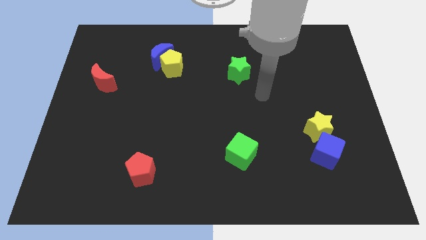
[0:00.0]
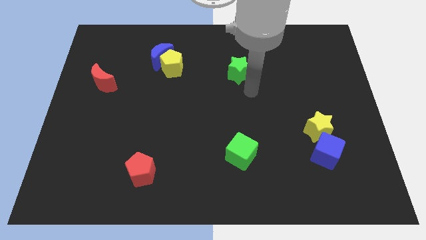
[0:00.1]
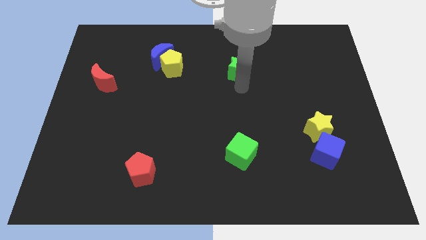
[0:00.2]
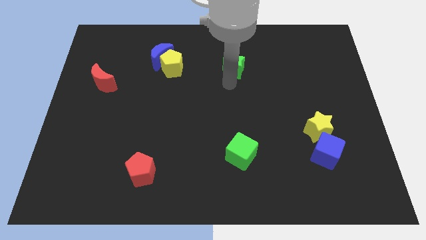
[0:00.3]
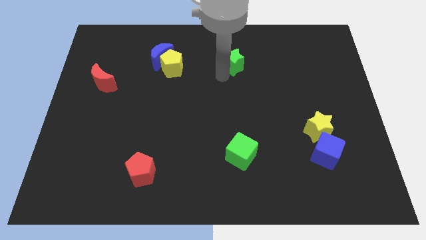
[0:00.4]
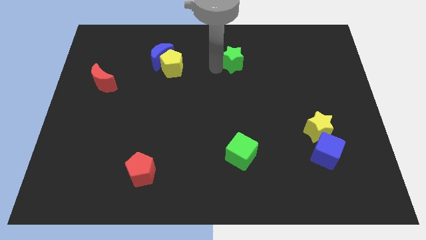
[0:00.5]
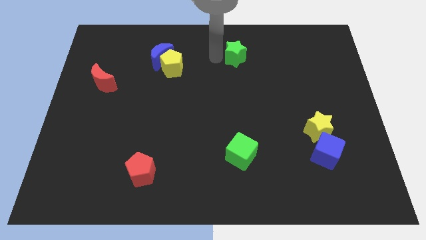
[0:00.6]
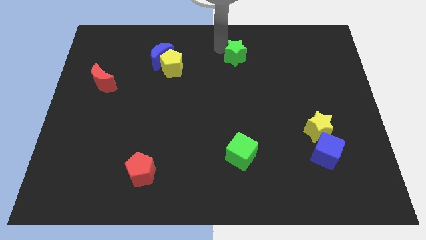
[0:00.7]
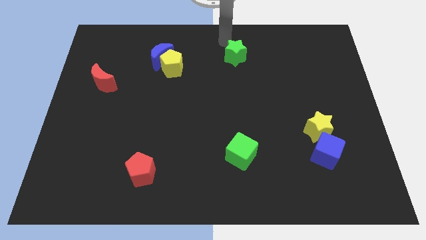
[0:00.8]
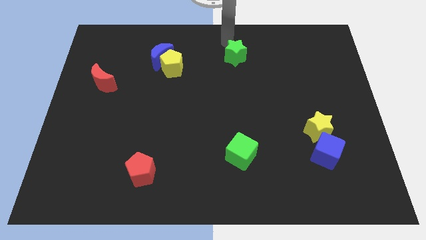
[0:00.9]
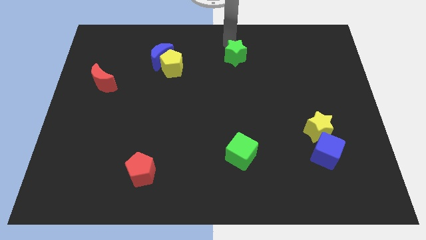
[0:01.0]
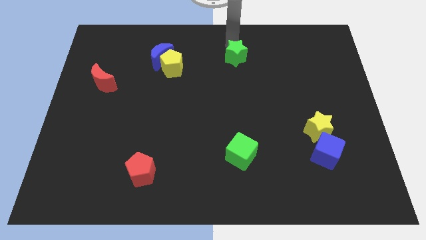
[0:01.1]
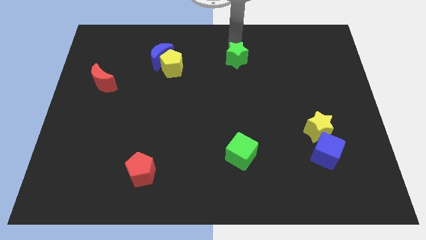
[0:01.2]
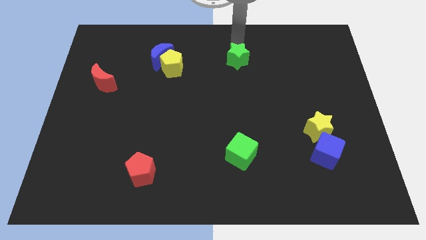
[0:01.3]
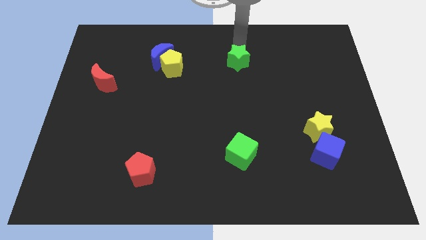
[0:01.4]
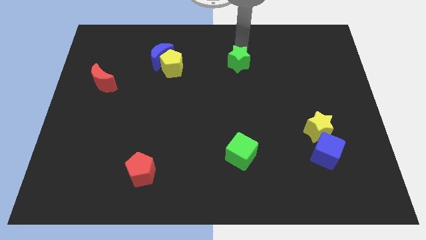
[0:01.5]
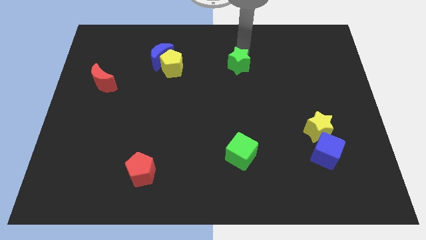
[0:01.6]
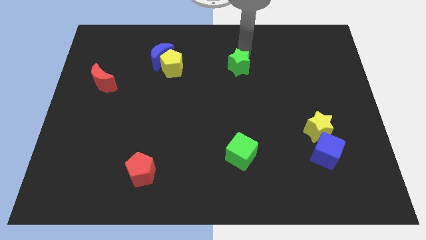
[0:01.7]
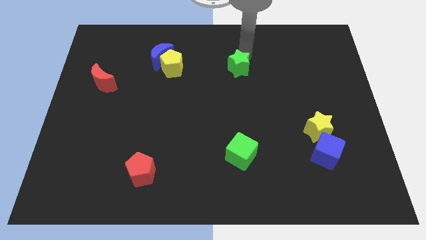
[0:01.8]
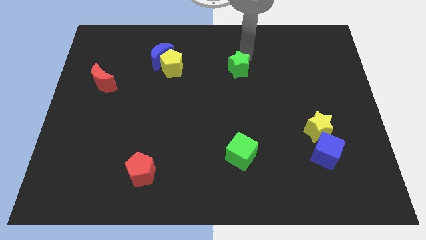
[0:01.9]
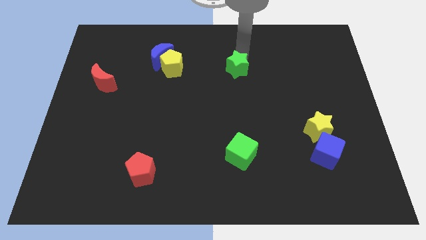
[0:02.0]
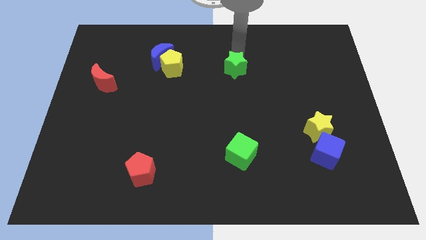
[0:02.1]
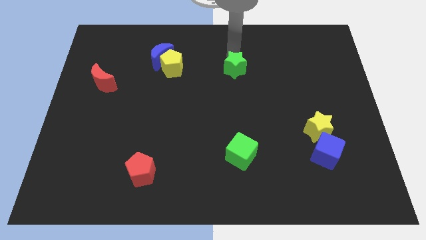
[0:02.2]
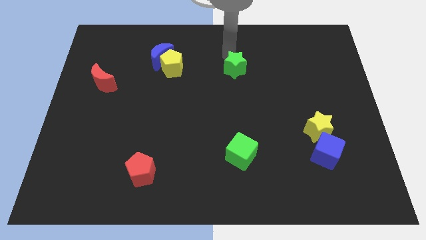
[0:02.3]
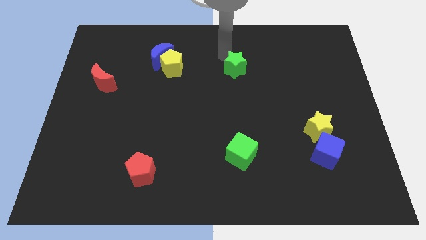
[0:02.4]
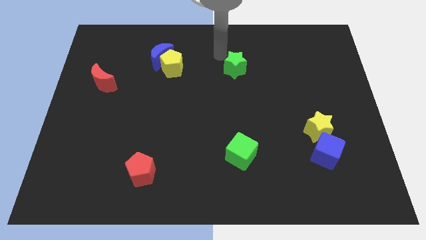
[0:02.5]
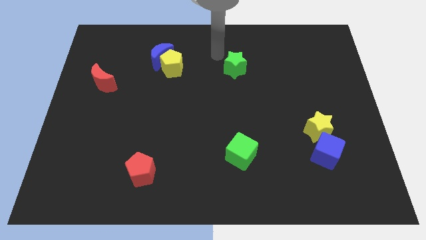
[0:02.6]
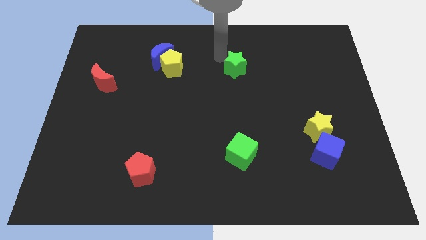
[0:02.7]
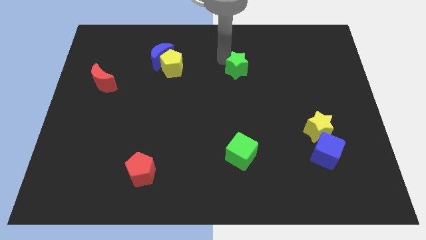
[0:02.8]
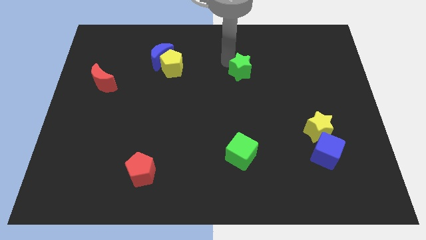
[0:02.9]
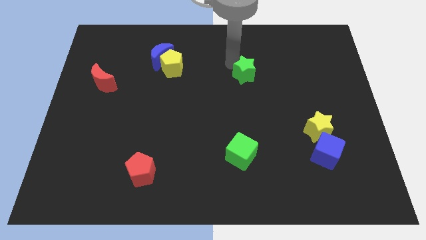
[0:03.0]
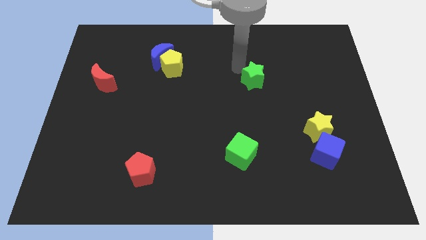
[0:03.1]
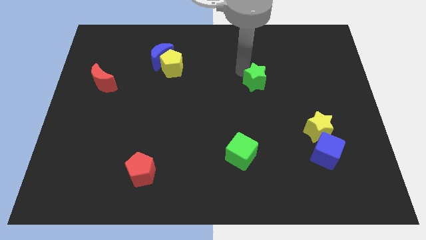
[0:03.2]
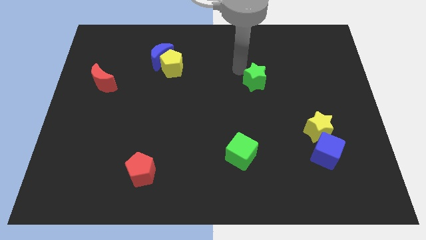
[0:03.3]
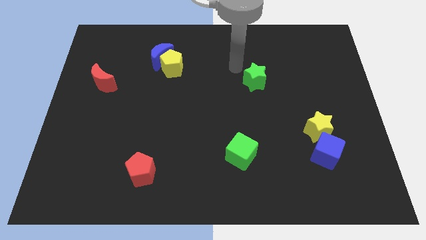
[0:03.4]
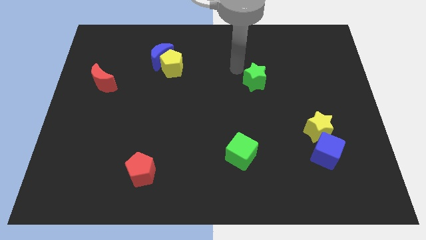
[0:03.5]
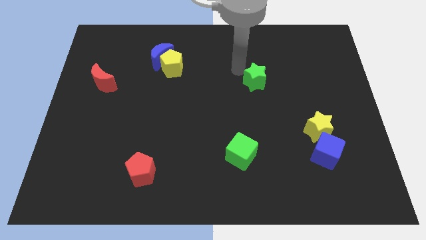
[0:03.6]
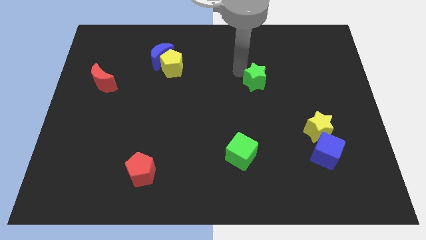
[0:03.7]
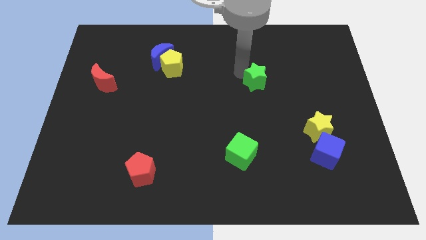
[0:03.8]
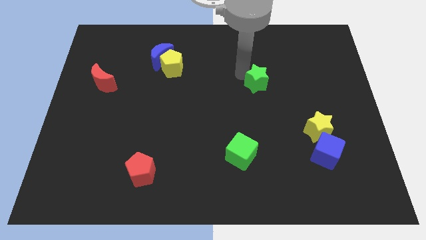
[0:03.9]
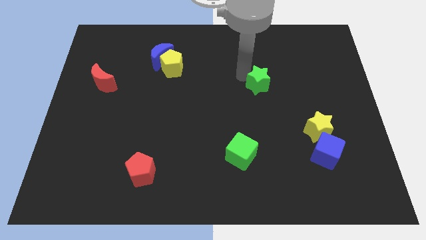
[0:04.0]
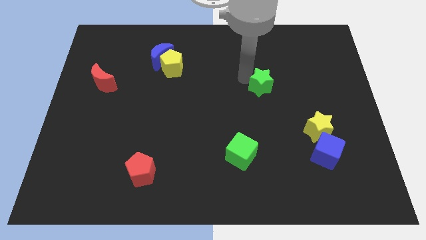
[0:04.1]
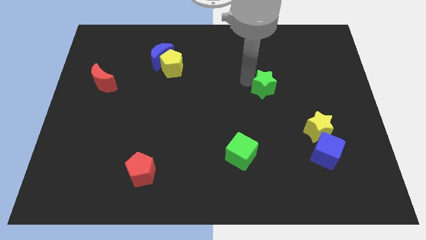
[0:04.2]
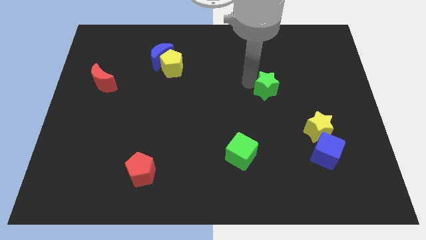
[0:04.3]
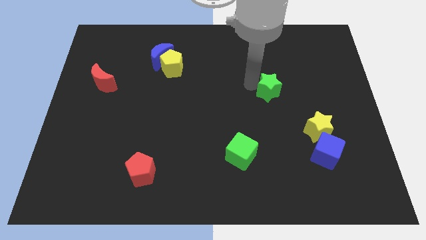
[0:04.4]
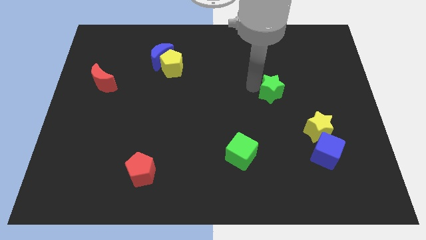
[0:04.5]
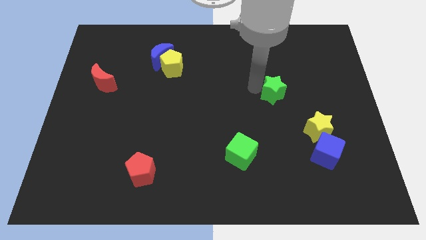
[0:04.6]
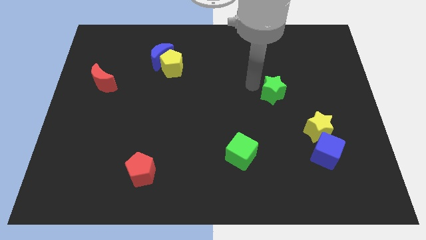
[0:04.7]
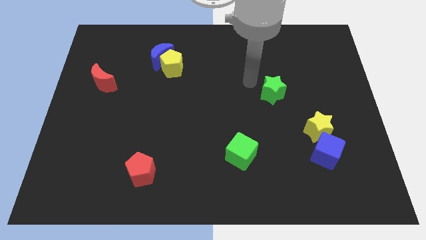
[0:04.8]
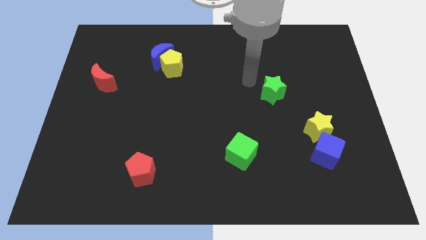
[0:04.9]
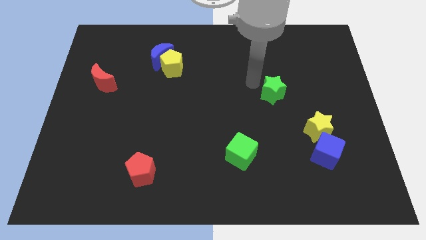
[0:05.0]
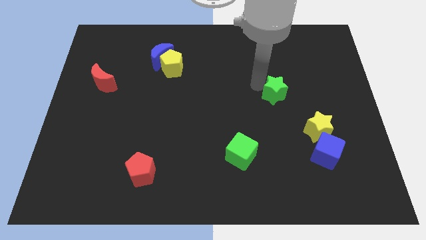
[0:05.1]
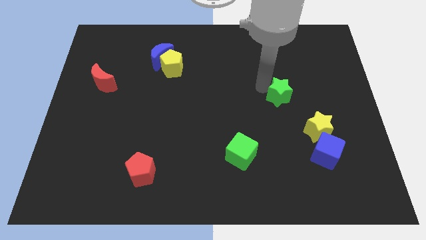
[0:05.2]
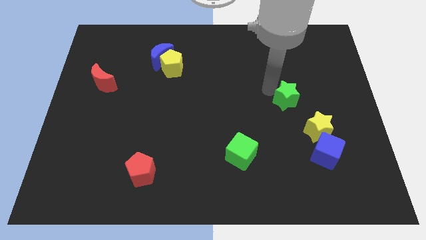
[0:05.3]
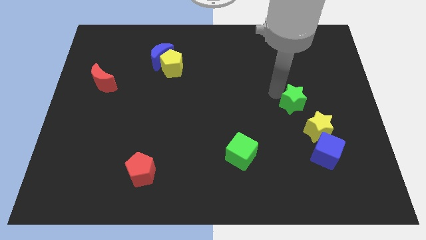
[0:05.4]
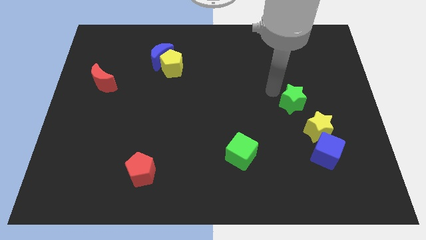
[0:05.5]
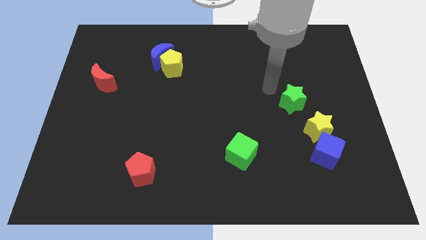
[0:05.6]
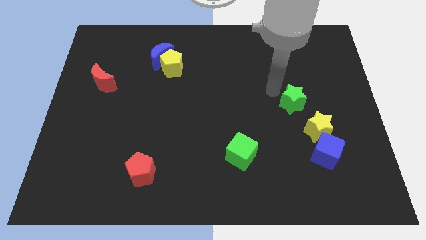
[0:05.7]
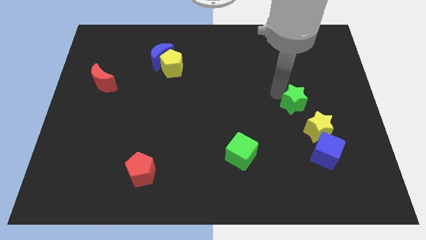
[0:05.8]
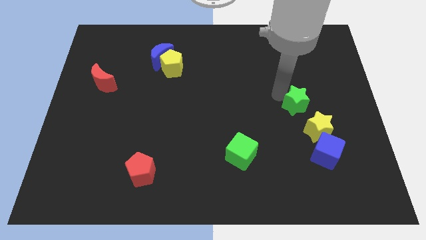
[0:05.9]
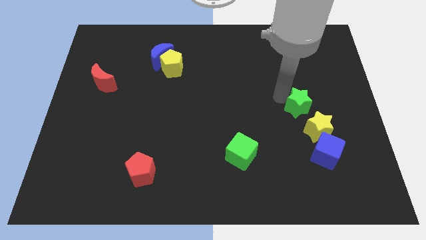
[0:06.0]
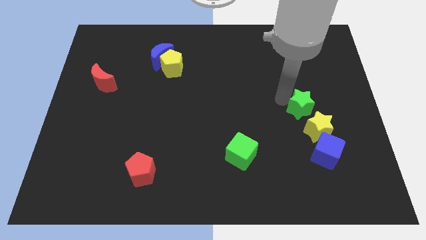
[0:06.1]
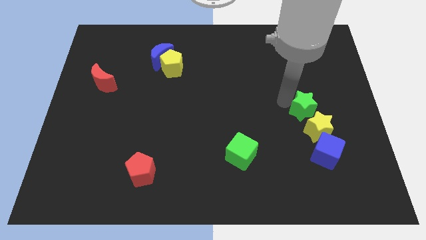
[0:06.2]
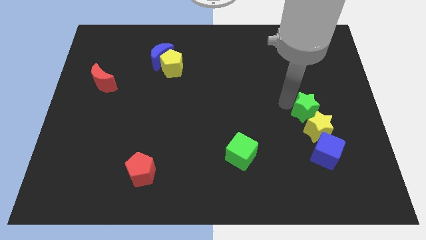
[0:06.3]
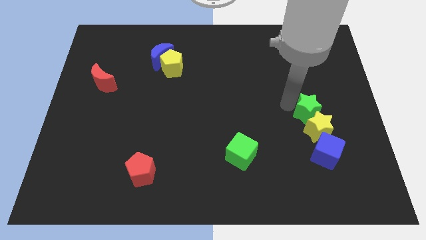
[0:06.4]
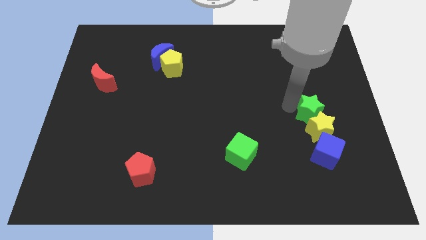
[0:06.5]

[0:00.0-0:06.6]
push the green star down and to the right diagonally

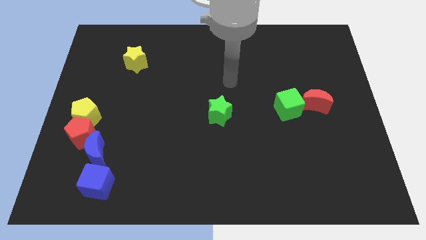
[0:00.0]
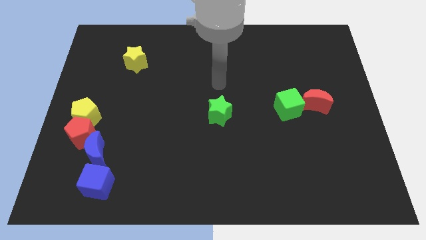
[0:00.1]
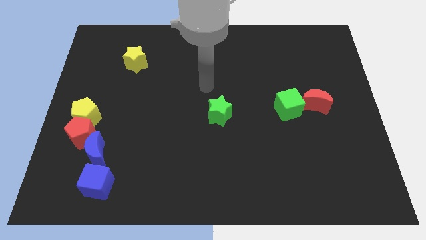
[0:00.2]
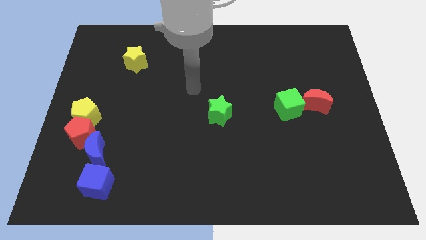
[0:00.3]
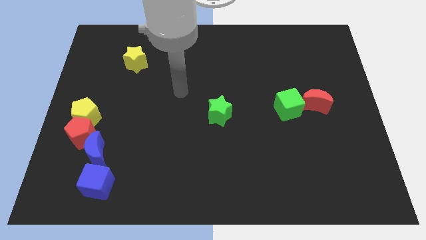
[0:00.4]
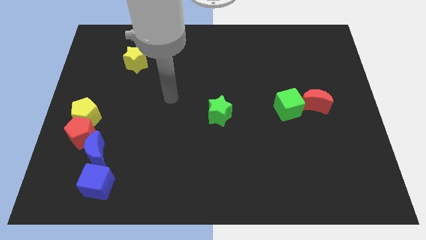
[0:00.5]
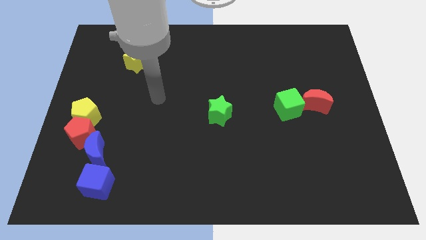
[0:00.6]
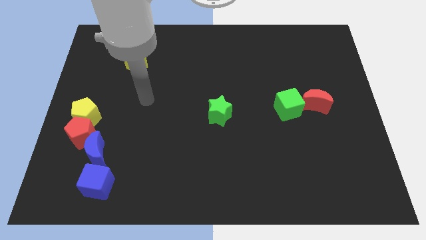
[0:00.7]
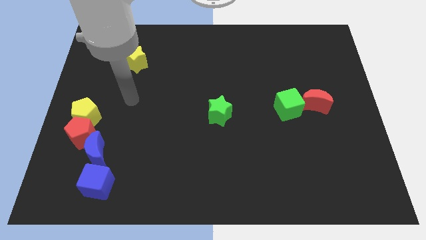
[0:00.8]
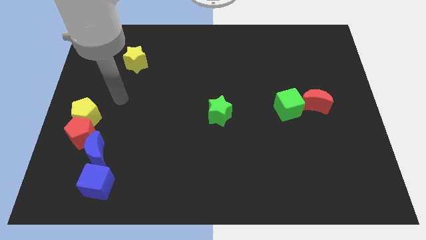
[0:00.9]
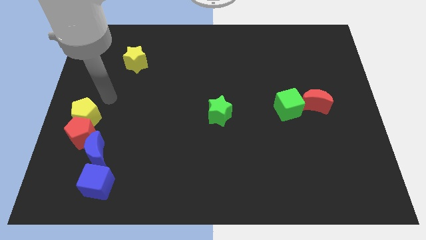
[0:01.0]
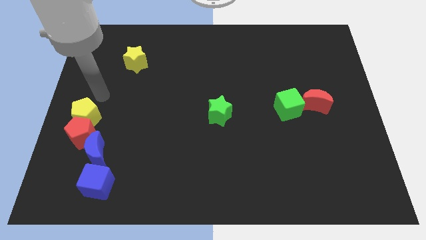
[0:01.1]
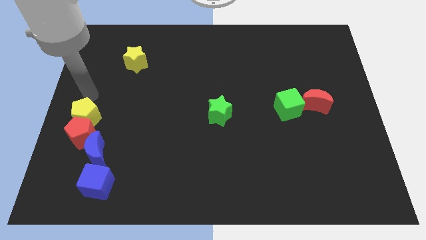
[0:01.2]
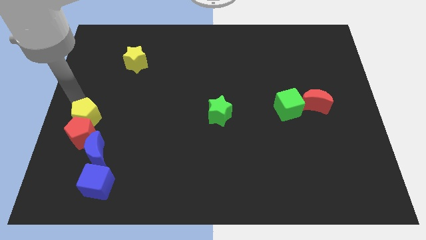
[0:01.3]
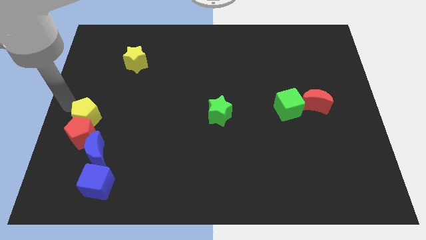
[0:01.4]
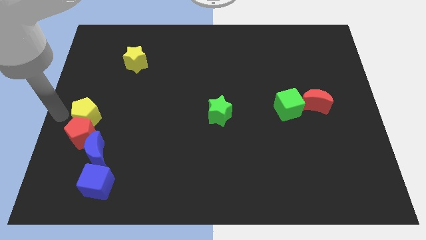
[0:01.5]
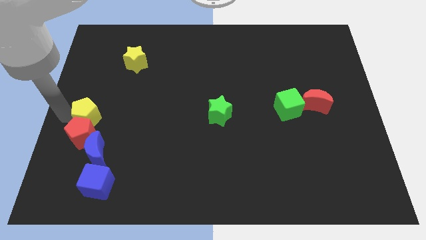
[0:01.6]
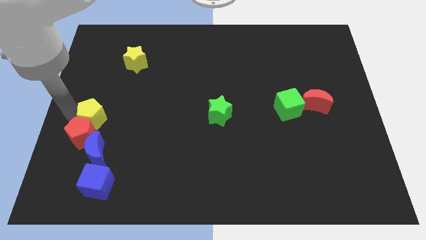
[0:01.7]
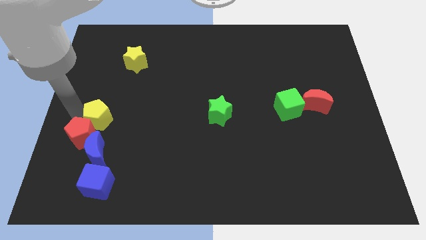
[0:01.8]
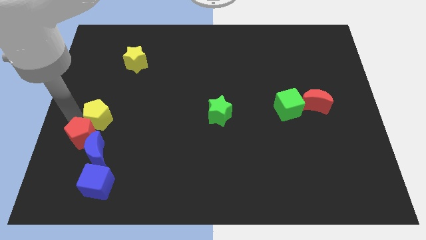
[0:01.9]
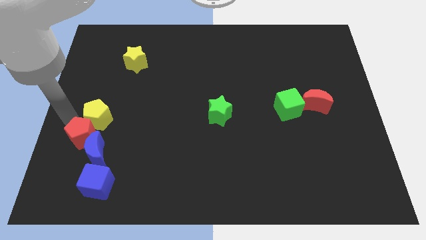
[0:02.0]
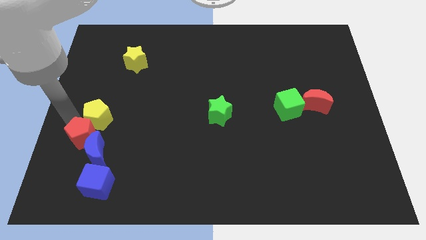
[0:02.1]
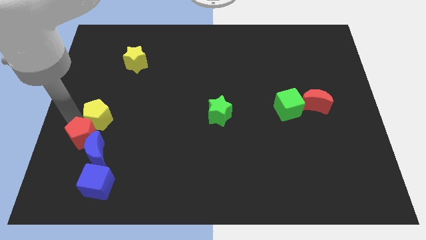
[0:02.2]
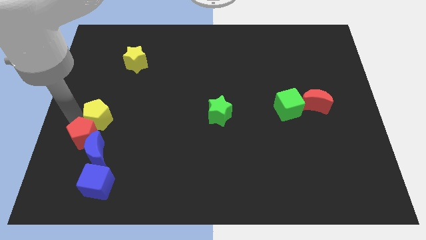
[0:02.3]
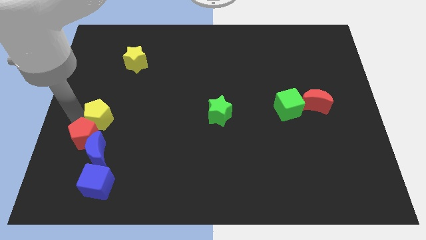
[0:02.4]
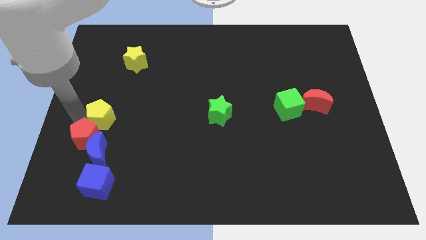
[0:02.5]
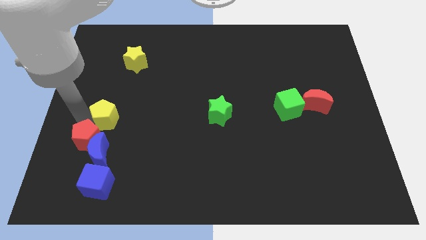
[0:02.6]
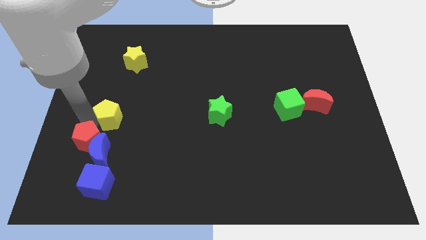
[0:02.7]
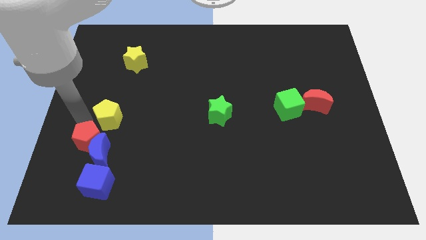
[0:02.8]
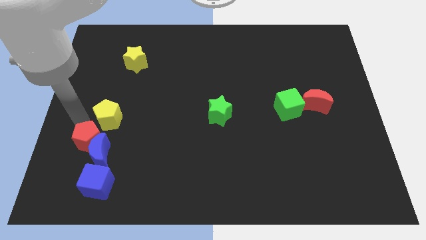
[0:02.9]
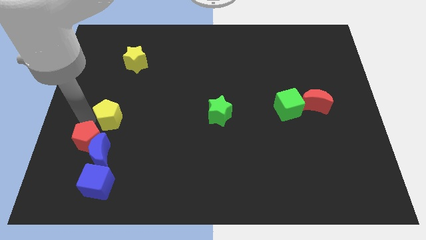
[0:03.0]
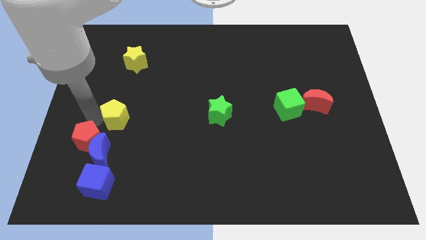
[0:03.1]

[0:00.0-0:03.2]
move the yellow pentagon slightly to the right
